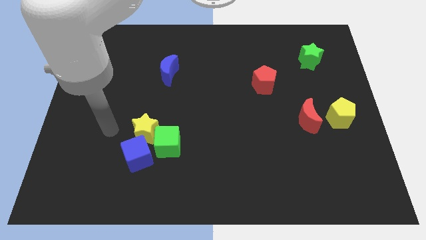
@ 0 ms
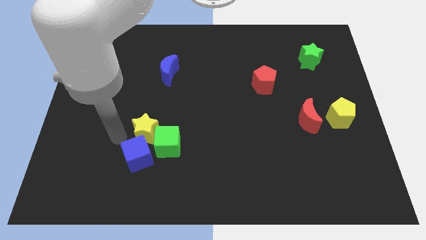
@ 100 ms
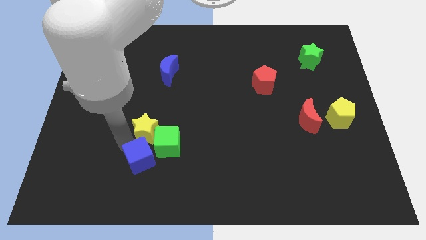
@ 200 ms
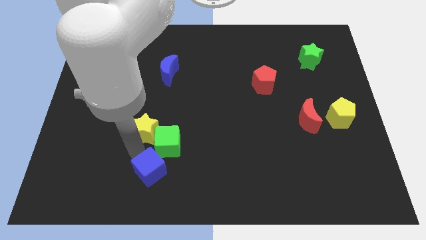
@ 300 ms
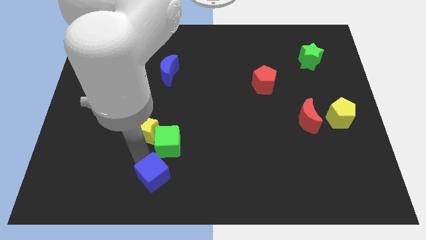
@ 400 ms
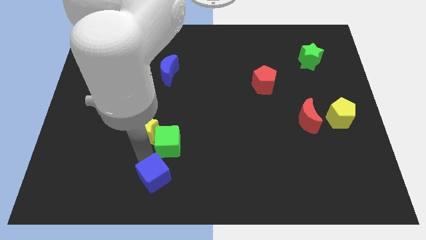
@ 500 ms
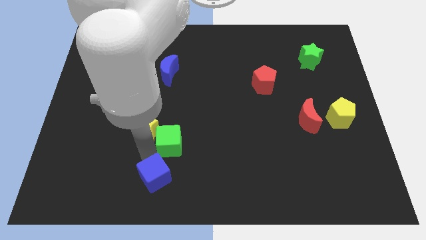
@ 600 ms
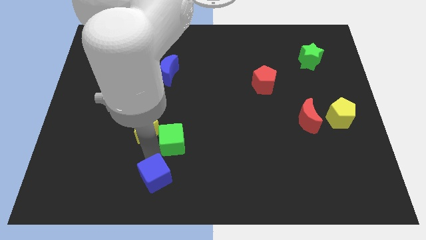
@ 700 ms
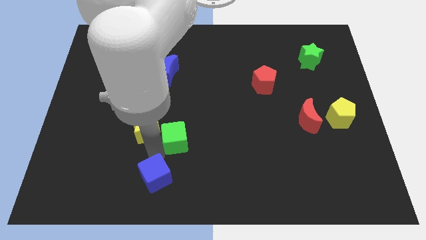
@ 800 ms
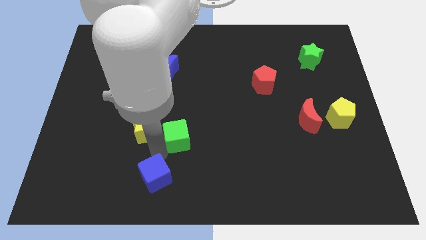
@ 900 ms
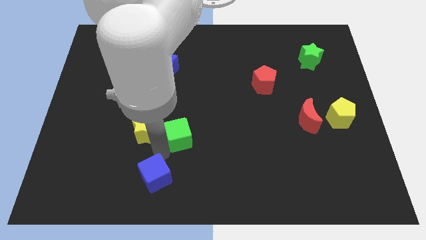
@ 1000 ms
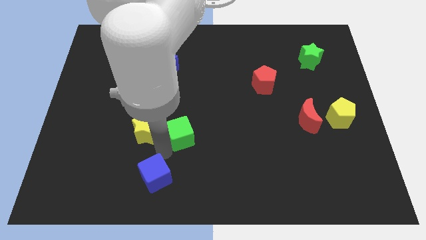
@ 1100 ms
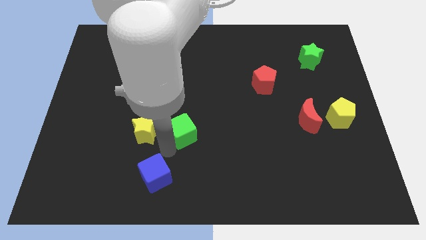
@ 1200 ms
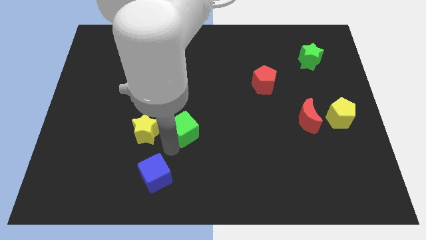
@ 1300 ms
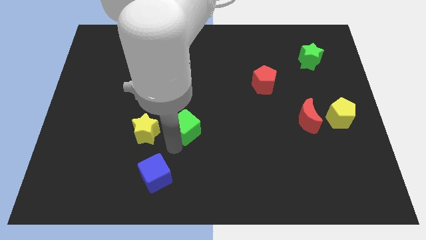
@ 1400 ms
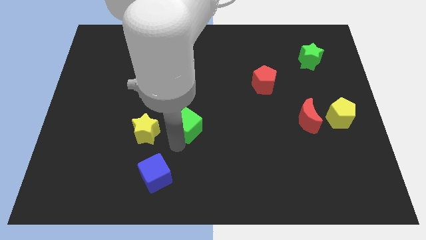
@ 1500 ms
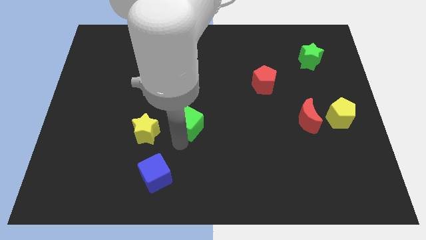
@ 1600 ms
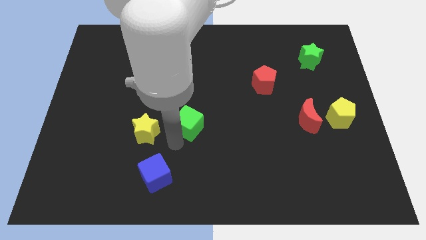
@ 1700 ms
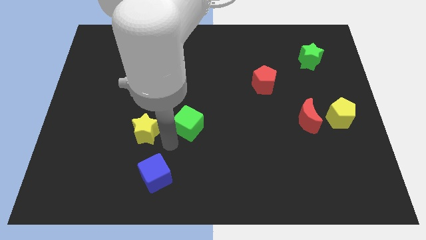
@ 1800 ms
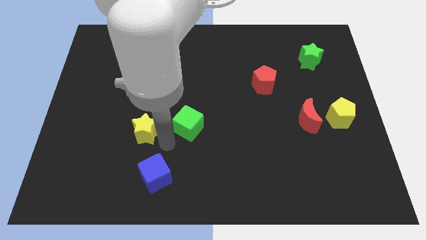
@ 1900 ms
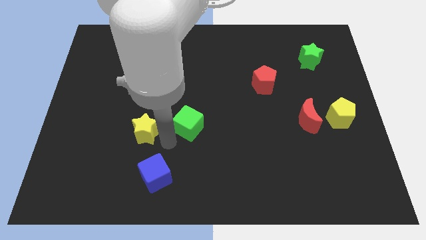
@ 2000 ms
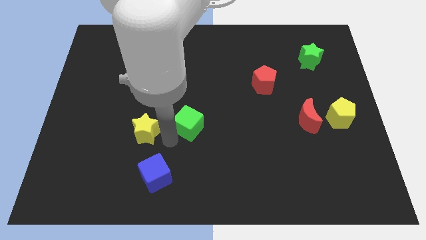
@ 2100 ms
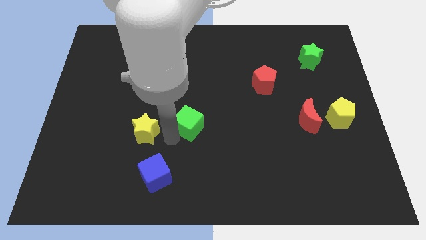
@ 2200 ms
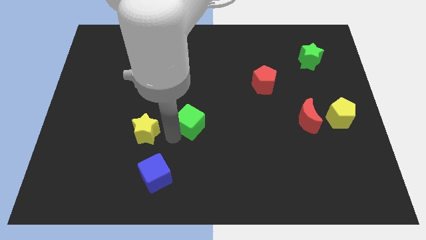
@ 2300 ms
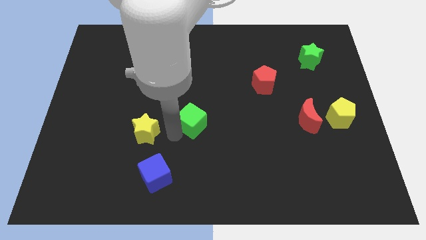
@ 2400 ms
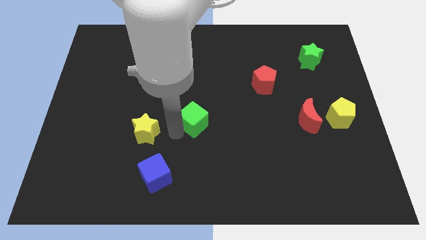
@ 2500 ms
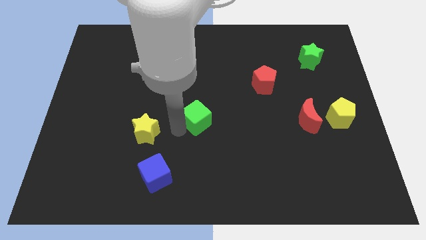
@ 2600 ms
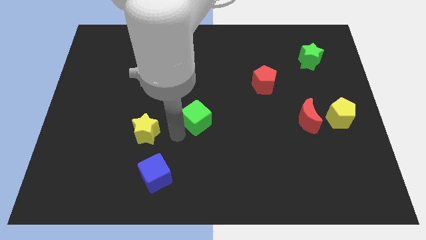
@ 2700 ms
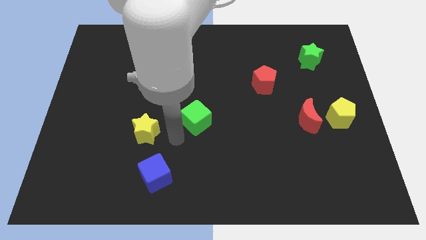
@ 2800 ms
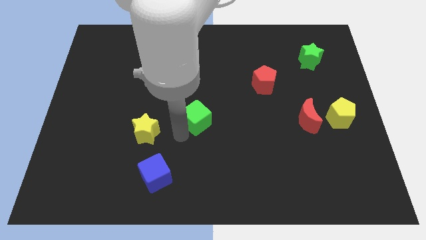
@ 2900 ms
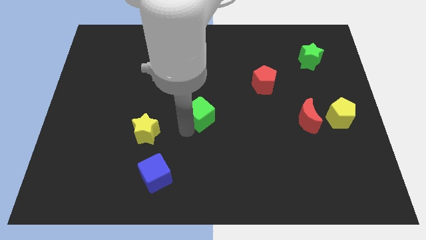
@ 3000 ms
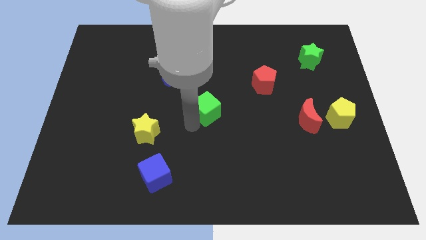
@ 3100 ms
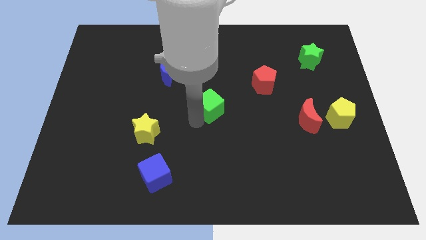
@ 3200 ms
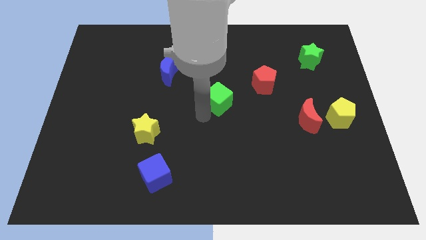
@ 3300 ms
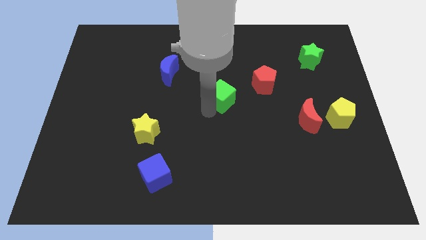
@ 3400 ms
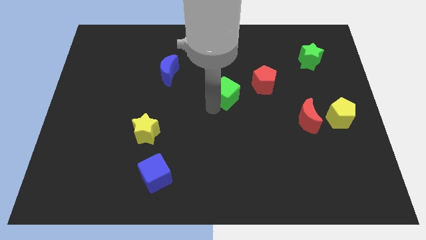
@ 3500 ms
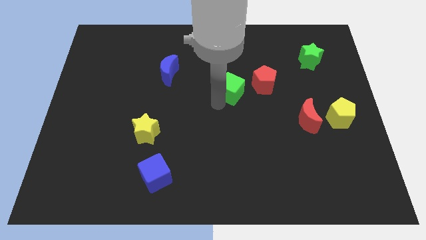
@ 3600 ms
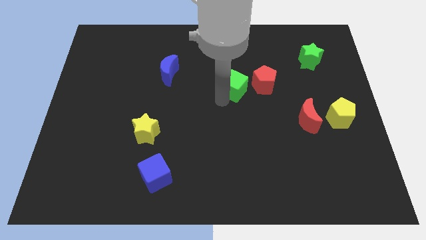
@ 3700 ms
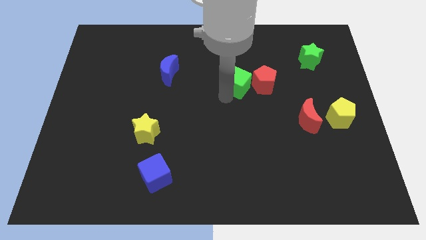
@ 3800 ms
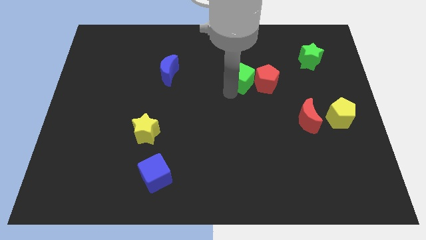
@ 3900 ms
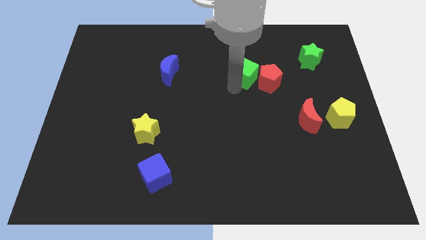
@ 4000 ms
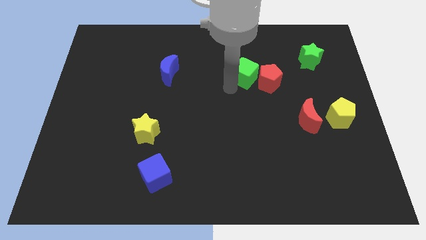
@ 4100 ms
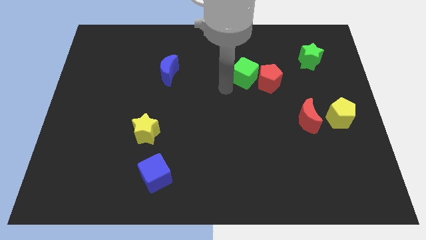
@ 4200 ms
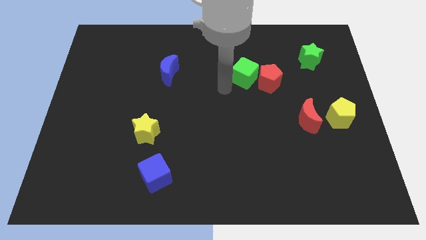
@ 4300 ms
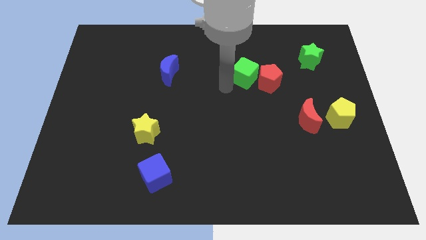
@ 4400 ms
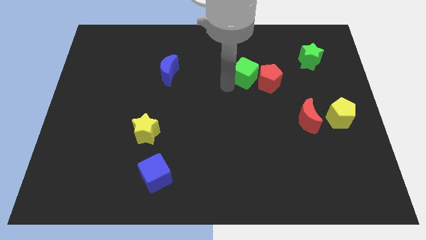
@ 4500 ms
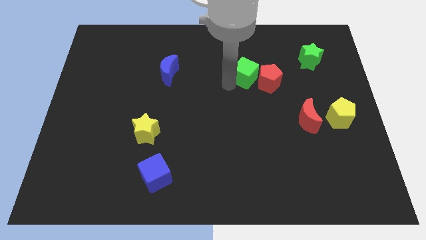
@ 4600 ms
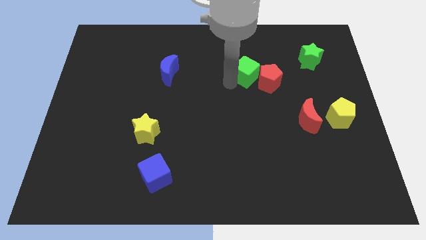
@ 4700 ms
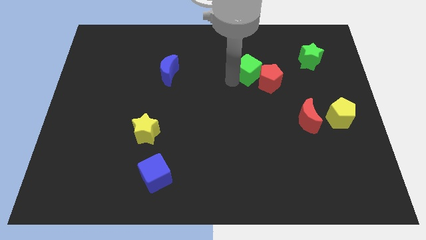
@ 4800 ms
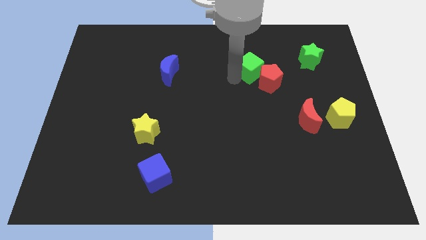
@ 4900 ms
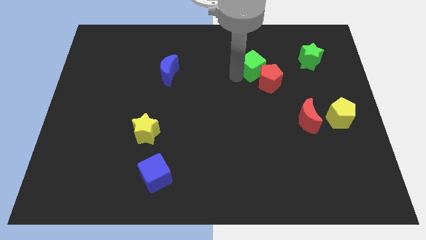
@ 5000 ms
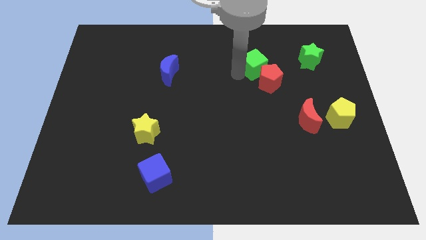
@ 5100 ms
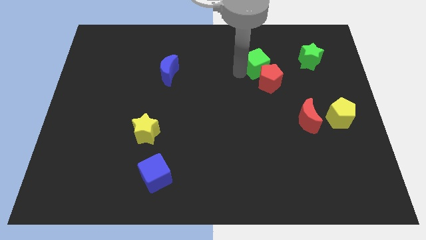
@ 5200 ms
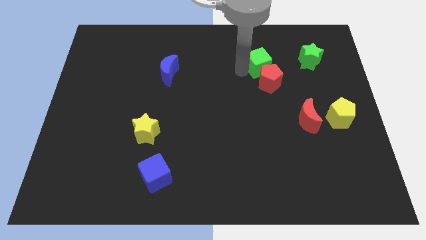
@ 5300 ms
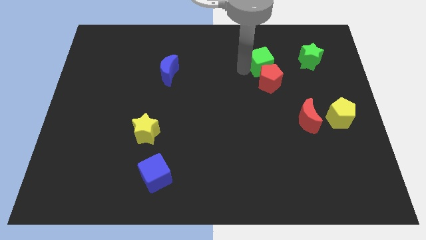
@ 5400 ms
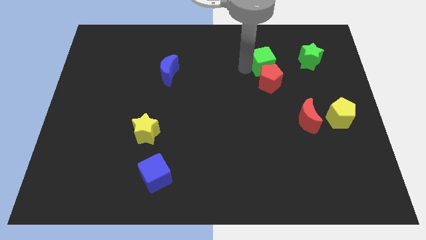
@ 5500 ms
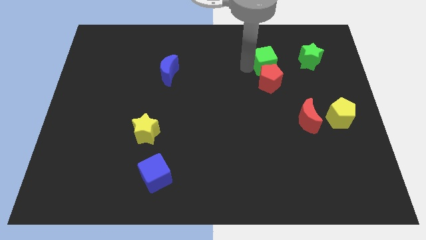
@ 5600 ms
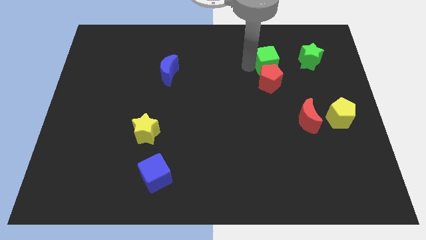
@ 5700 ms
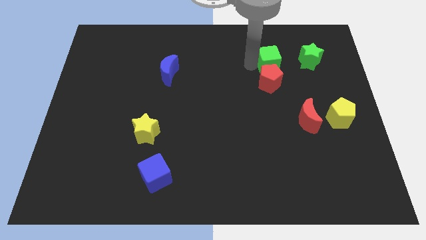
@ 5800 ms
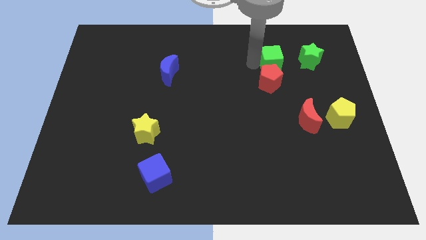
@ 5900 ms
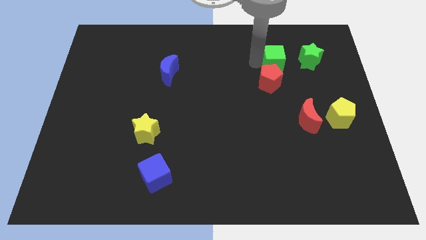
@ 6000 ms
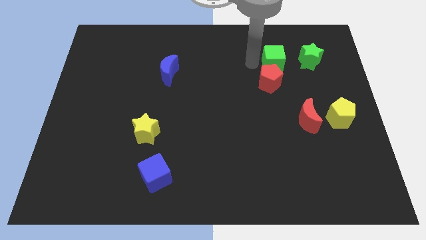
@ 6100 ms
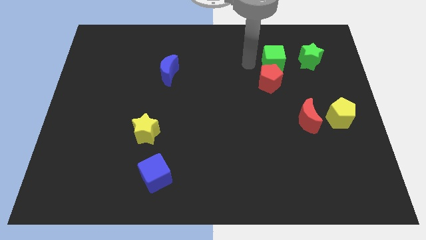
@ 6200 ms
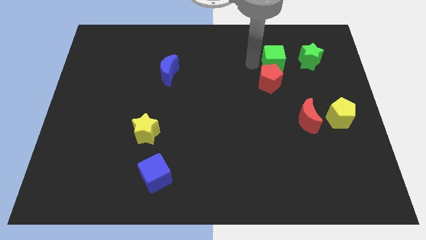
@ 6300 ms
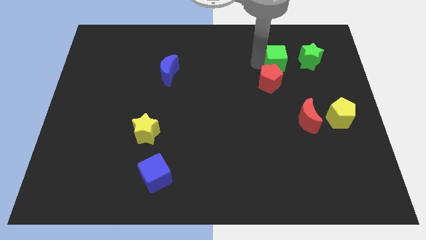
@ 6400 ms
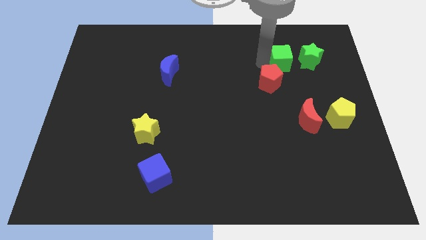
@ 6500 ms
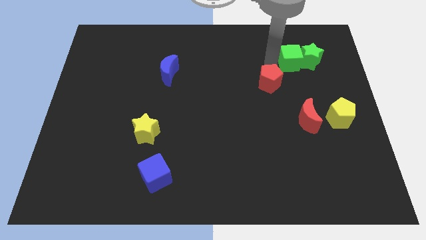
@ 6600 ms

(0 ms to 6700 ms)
put the green cube close to the green star

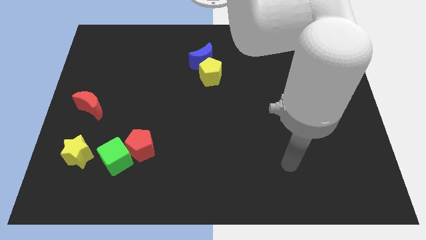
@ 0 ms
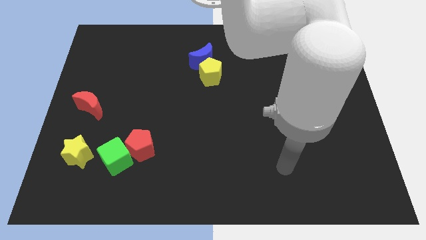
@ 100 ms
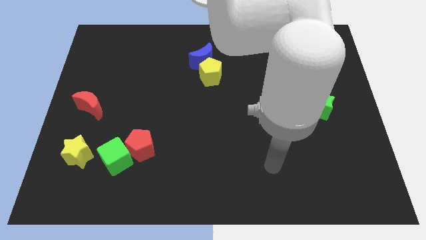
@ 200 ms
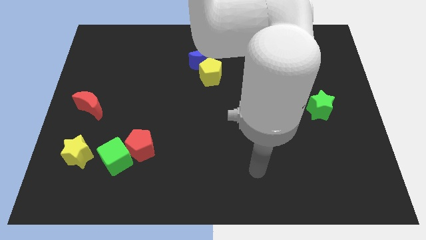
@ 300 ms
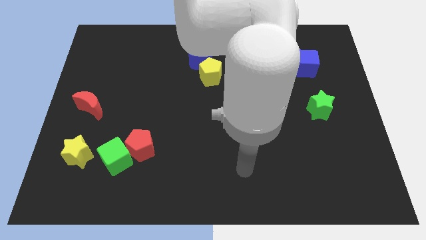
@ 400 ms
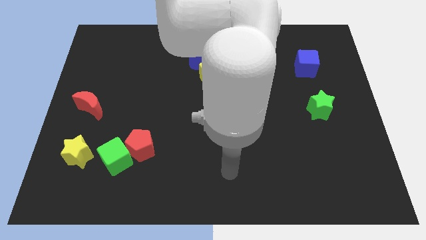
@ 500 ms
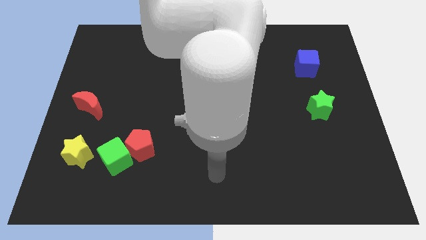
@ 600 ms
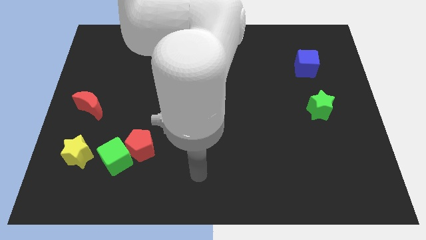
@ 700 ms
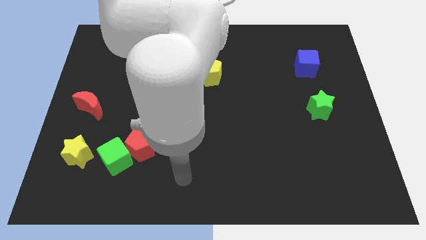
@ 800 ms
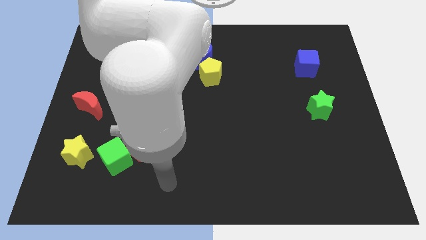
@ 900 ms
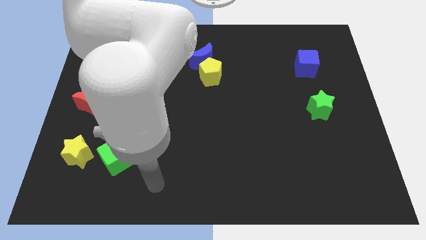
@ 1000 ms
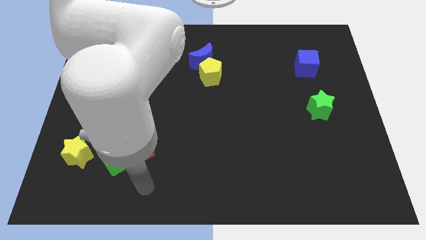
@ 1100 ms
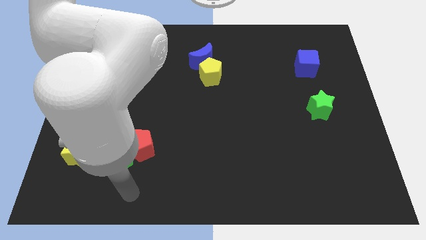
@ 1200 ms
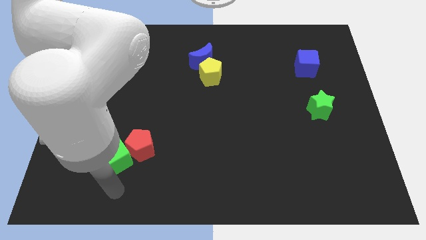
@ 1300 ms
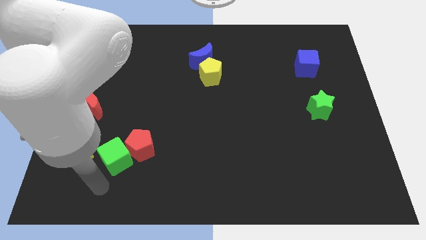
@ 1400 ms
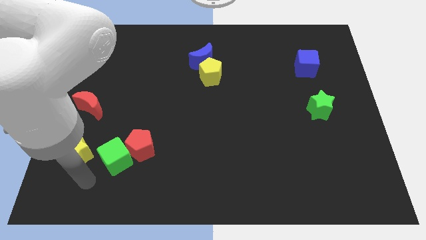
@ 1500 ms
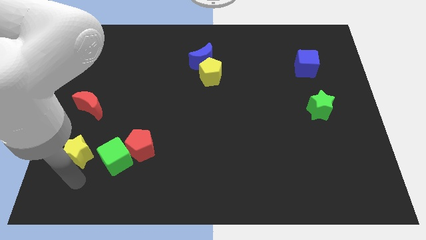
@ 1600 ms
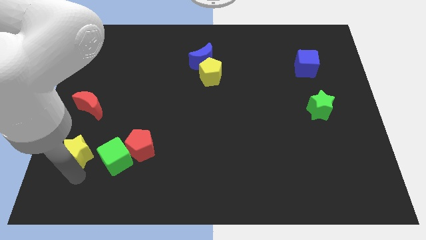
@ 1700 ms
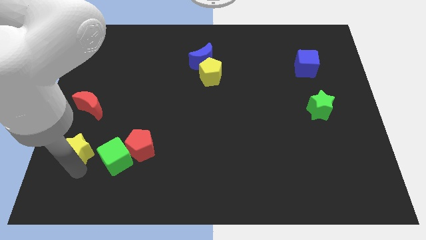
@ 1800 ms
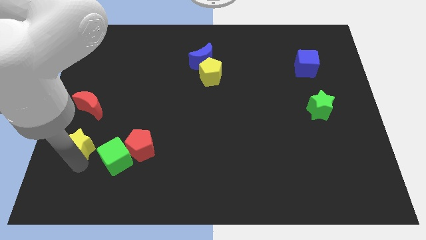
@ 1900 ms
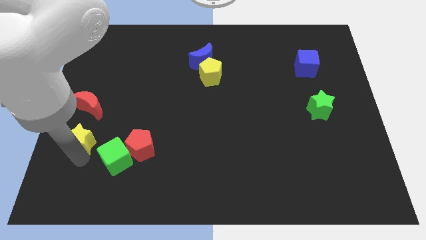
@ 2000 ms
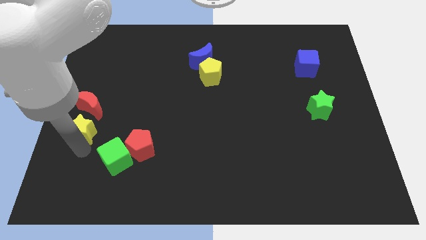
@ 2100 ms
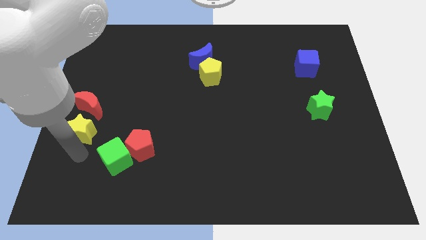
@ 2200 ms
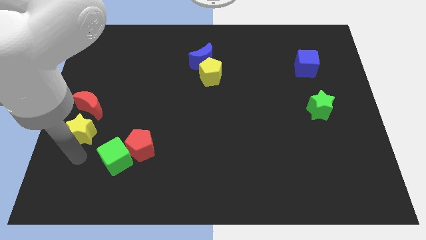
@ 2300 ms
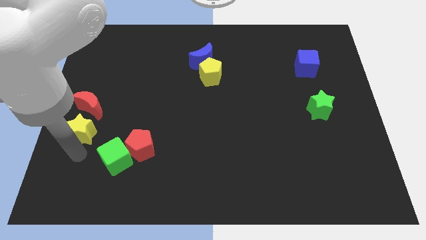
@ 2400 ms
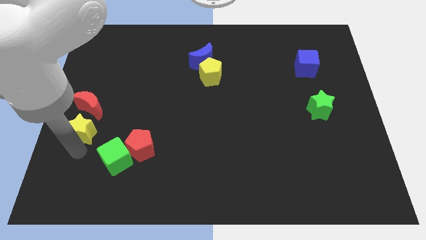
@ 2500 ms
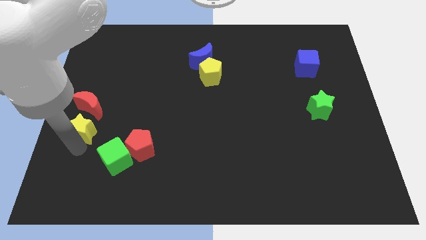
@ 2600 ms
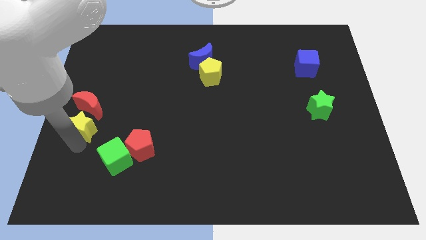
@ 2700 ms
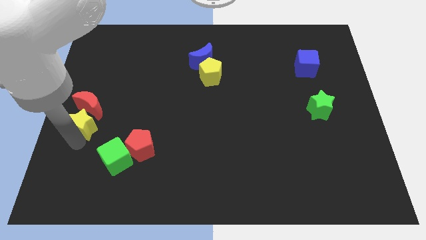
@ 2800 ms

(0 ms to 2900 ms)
move the yellow star close to the red moon
